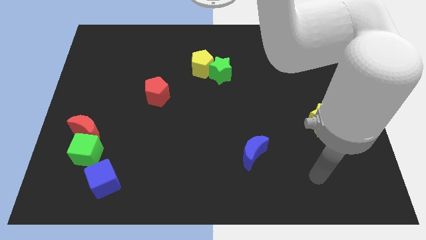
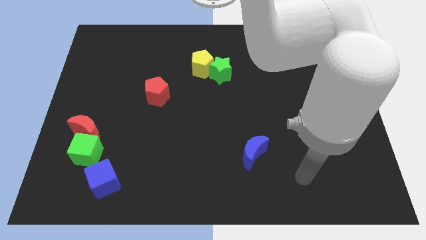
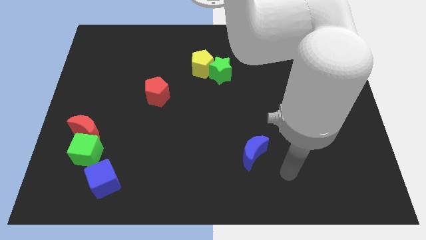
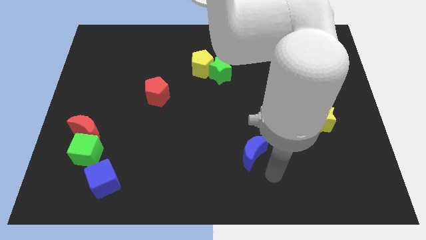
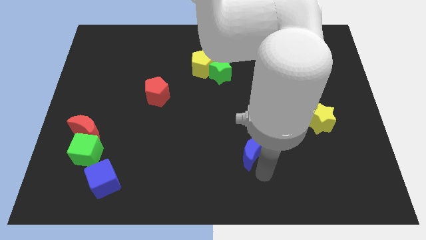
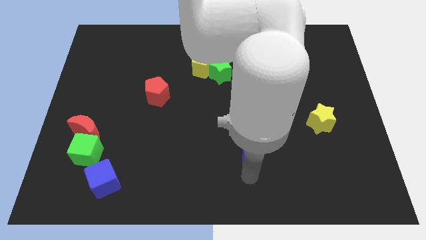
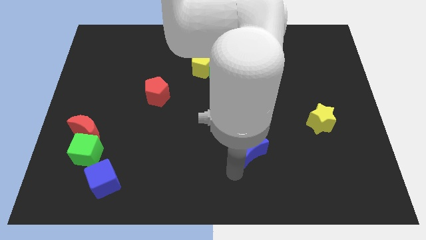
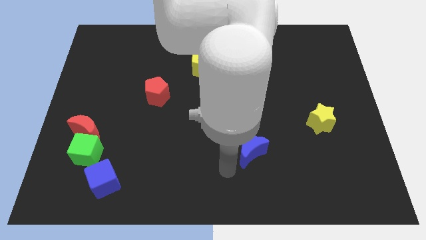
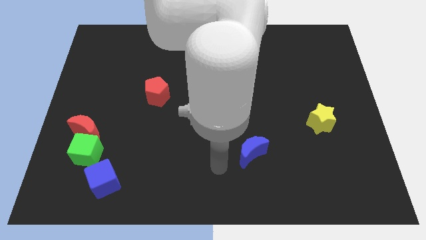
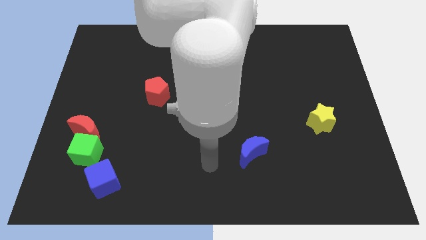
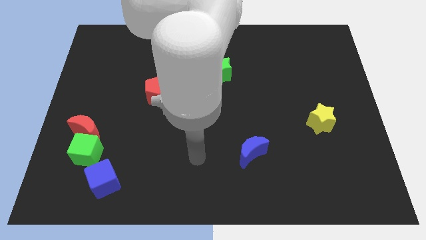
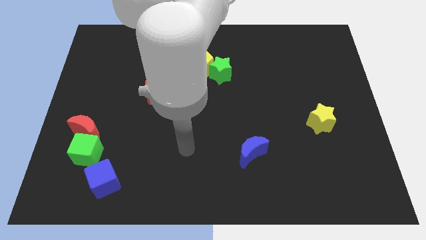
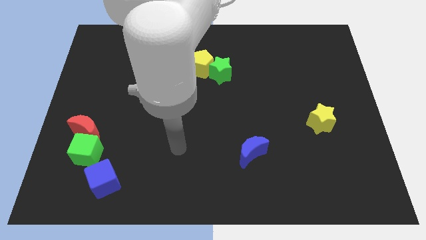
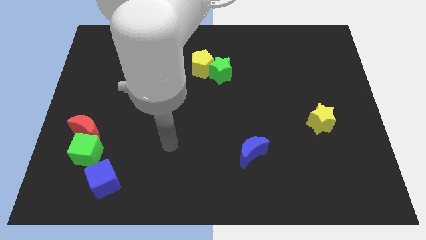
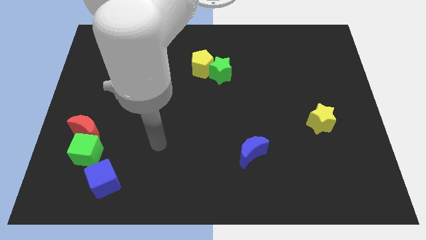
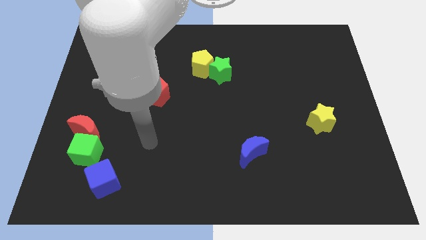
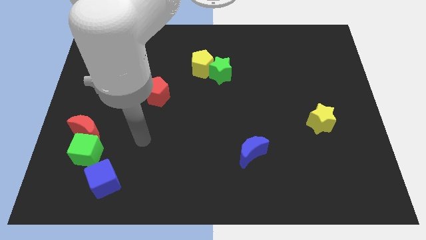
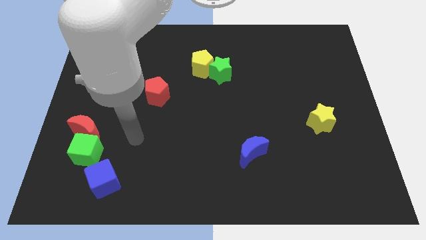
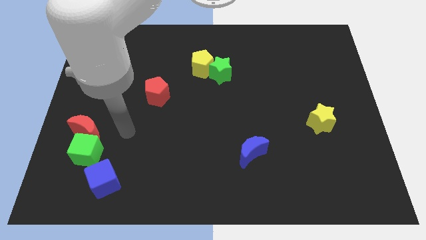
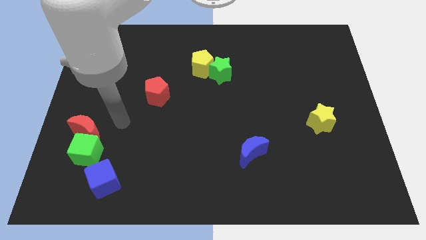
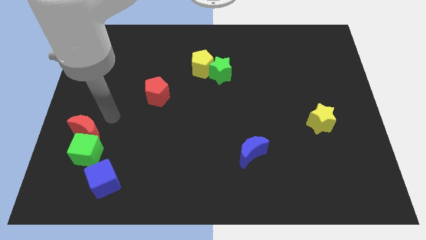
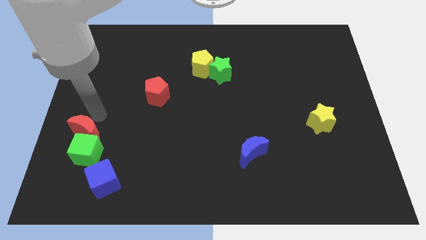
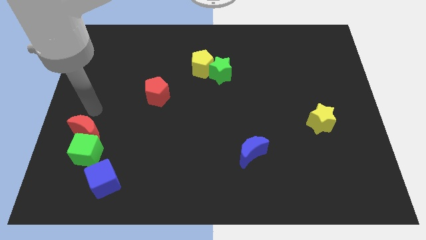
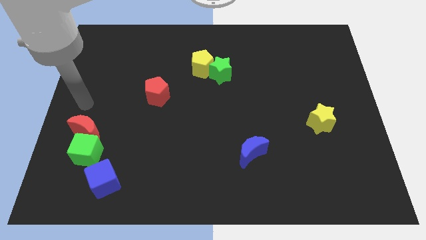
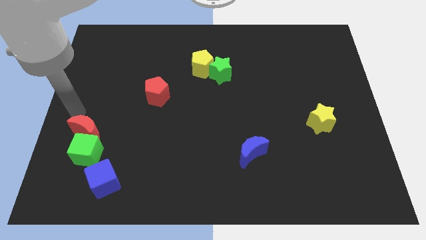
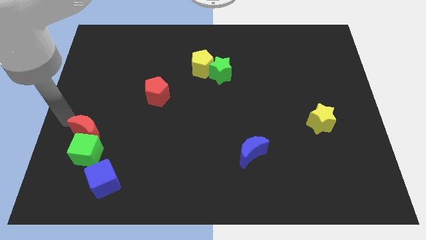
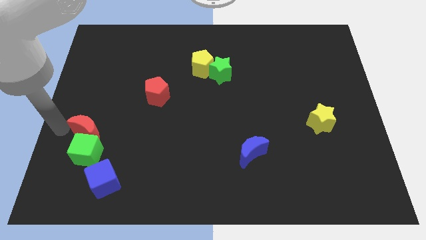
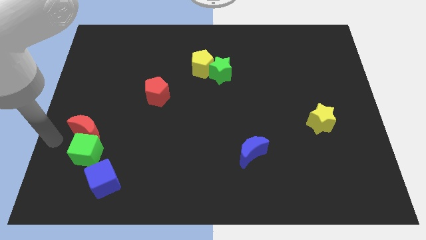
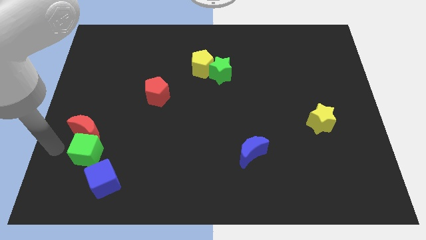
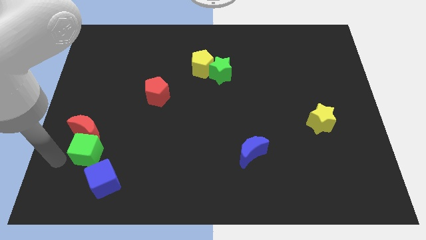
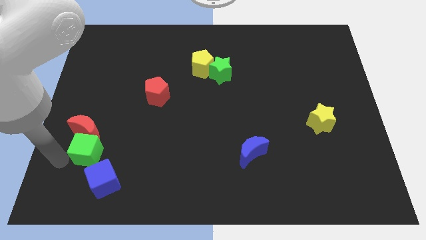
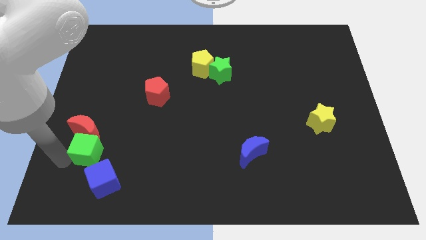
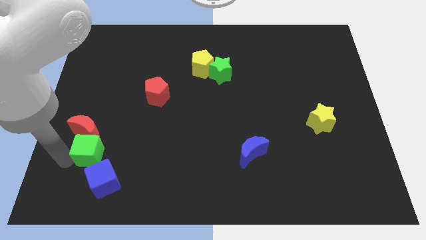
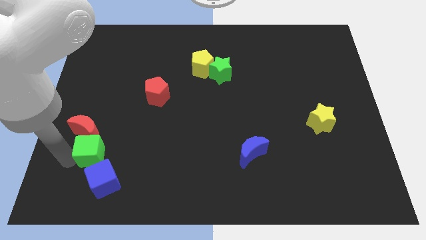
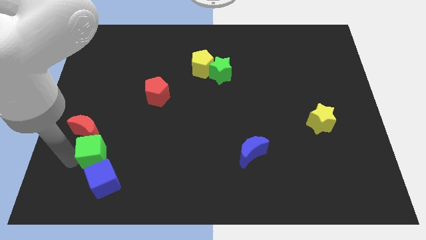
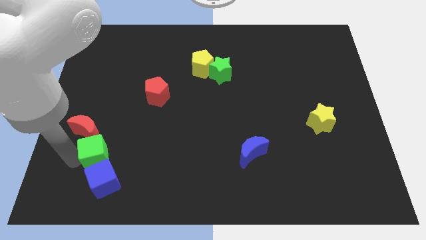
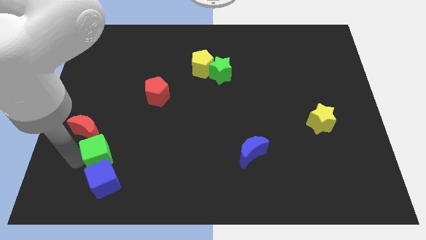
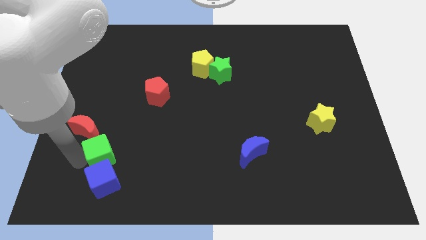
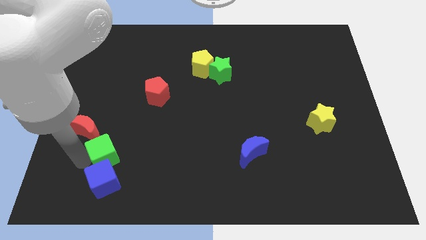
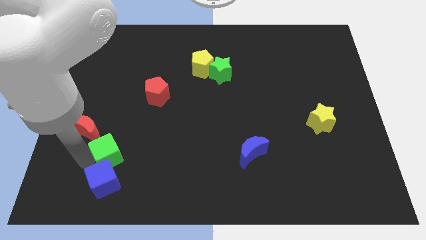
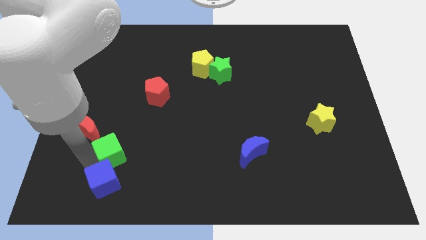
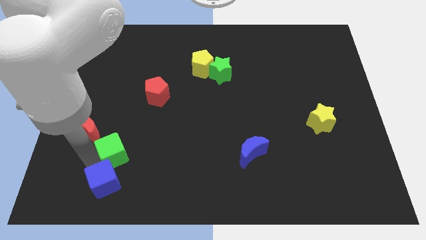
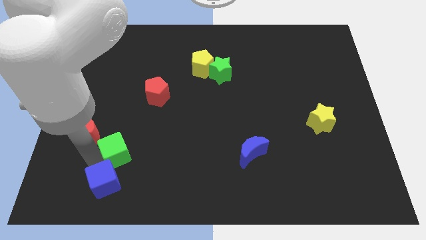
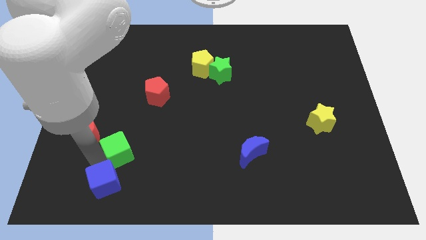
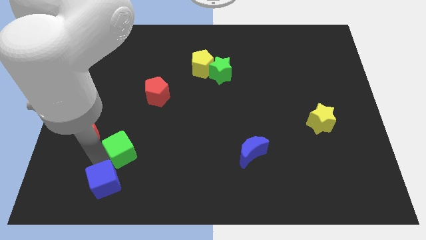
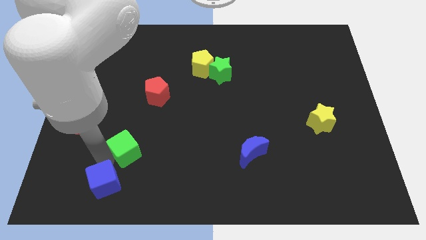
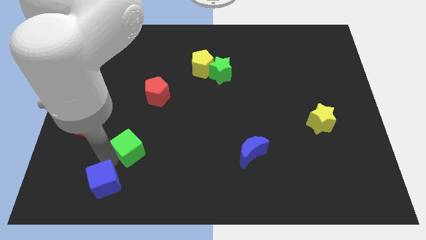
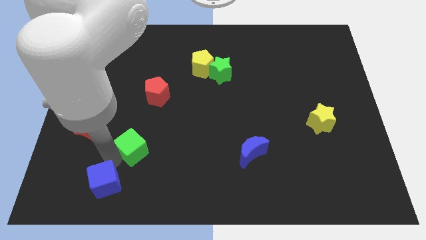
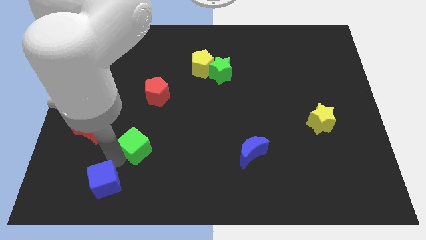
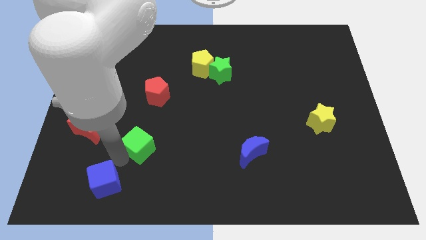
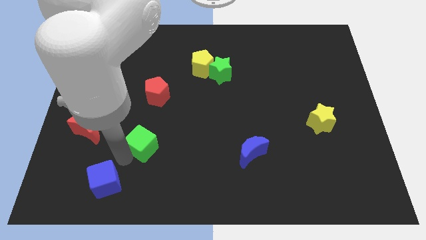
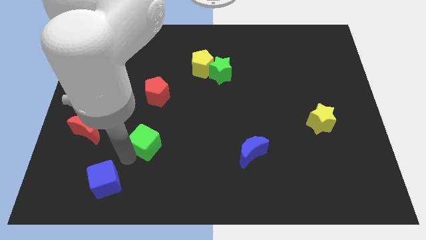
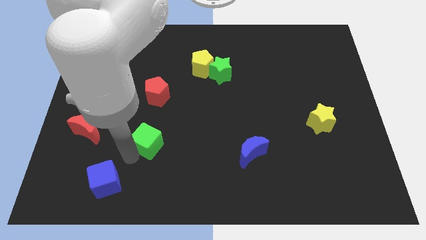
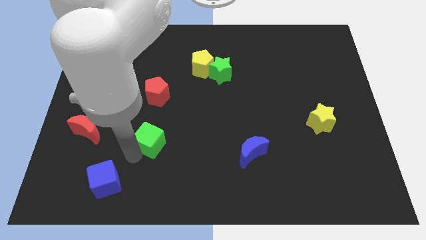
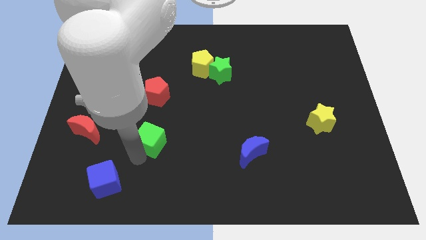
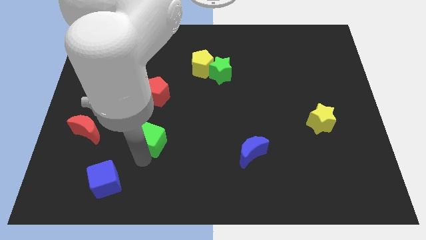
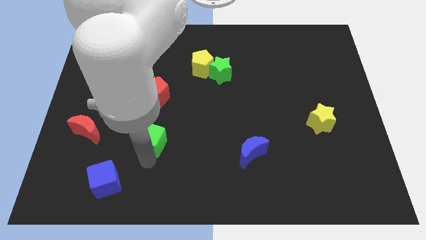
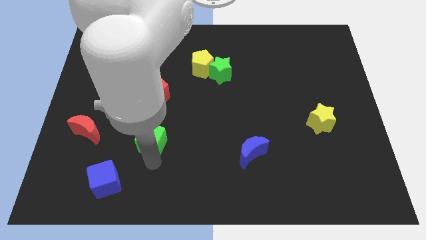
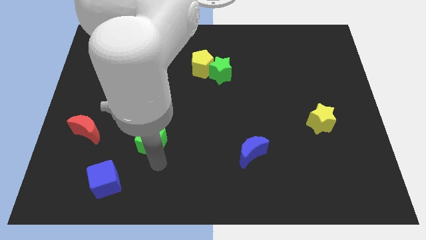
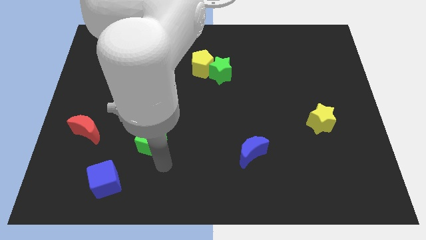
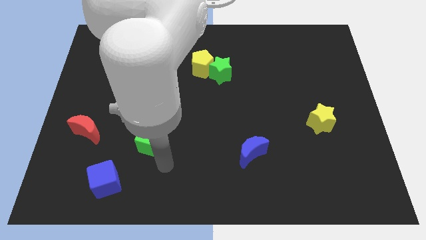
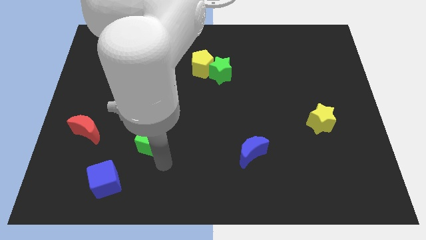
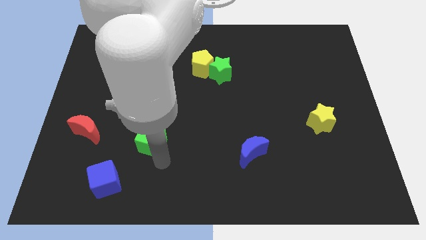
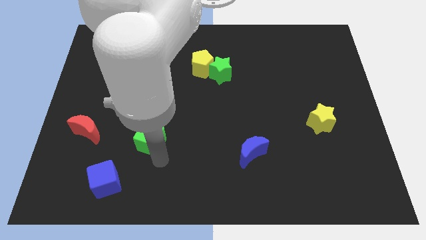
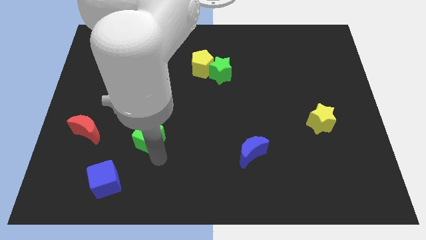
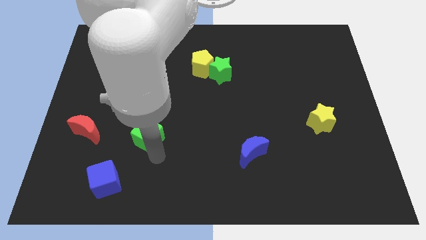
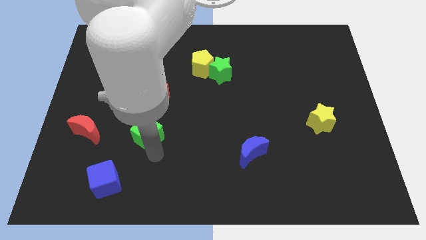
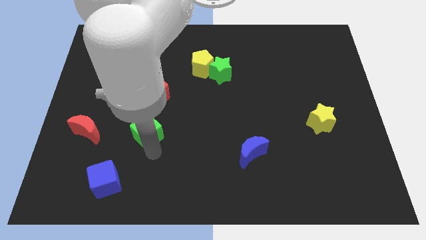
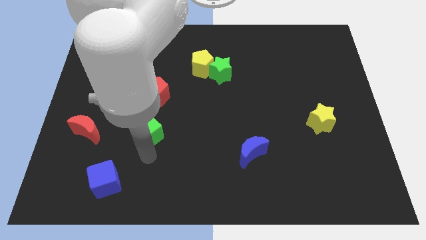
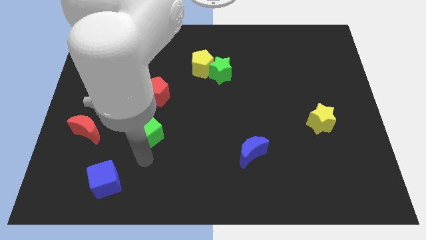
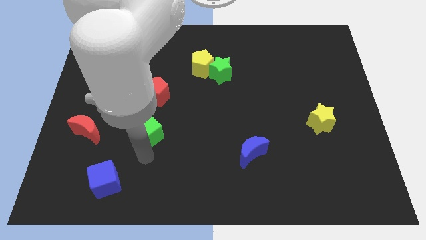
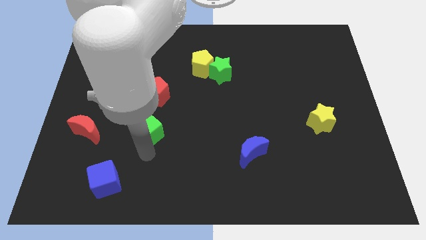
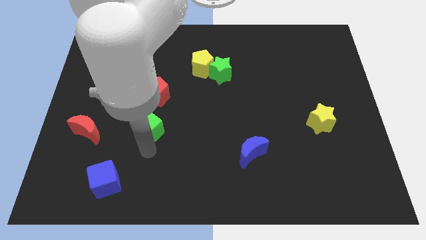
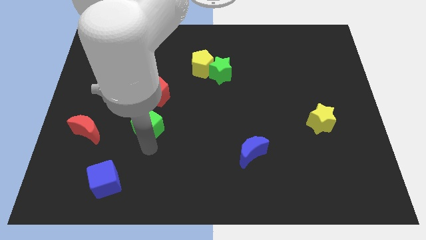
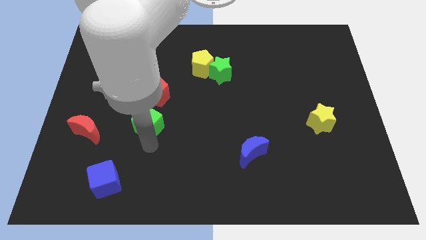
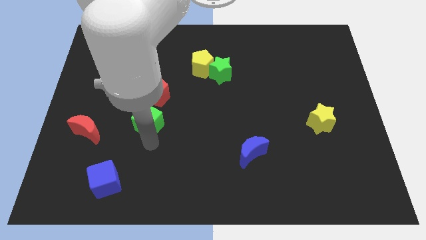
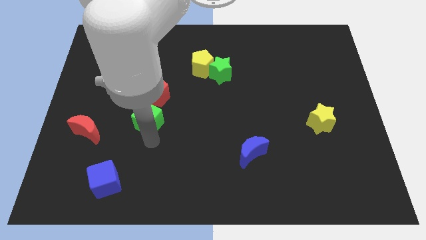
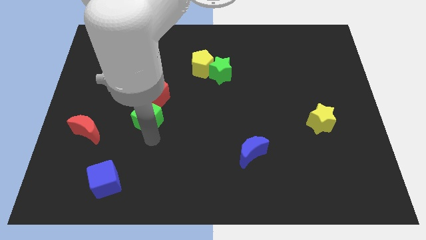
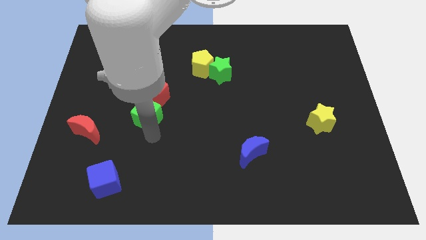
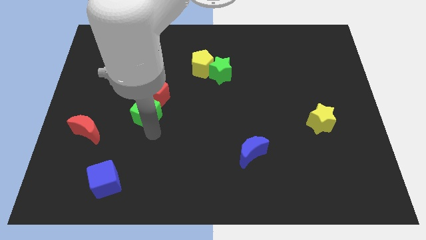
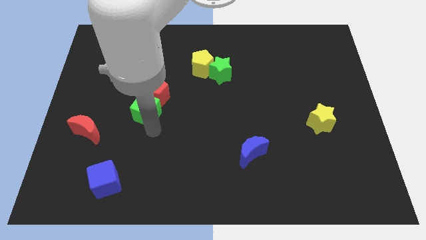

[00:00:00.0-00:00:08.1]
slide the green cube towards the red pentagon
